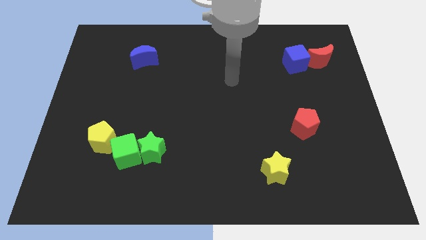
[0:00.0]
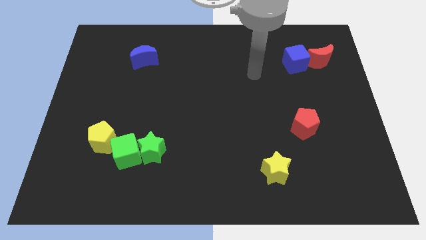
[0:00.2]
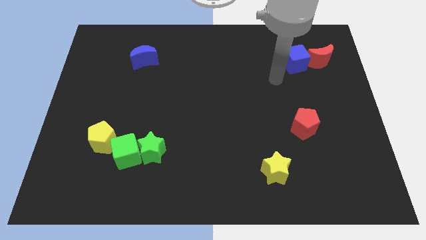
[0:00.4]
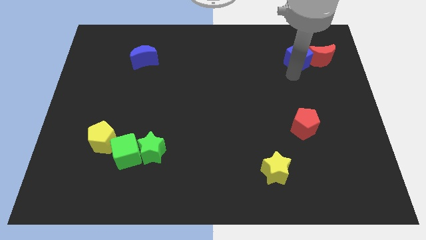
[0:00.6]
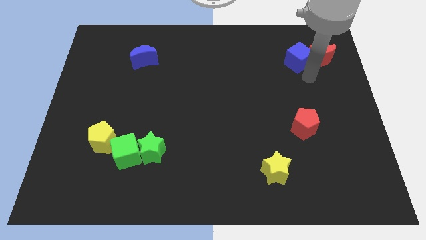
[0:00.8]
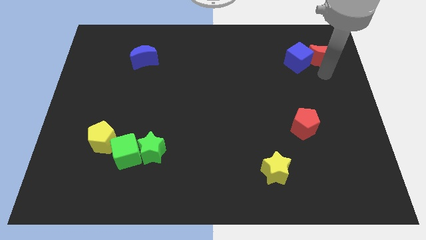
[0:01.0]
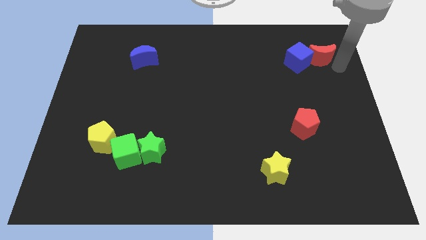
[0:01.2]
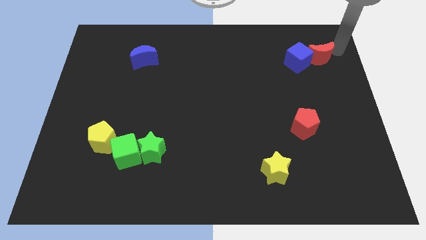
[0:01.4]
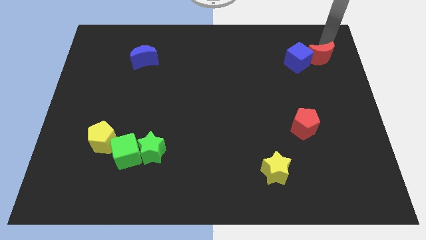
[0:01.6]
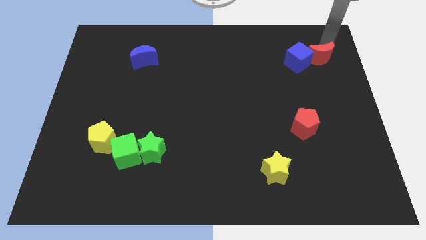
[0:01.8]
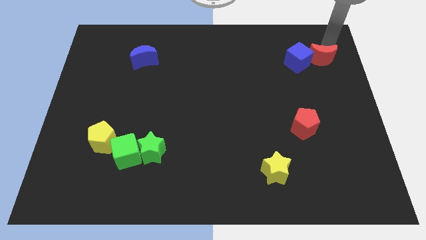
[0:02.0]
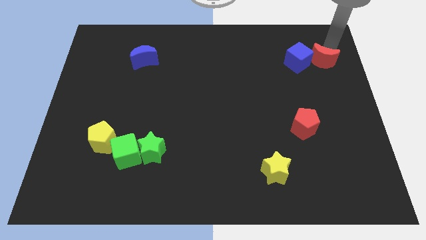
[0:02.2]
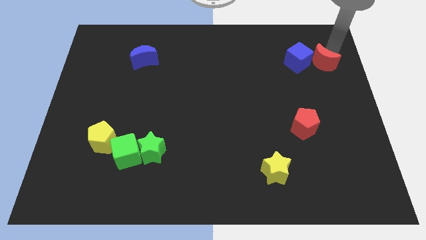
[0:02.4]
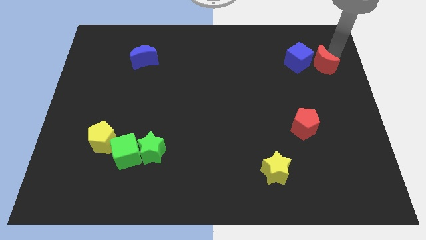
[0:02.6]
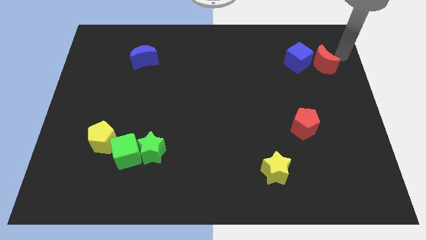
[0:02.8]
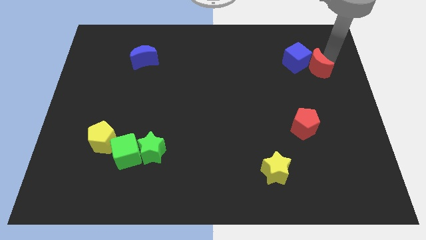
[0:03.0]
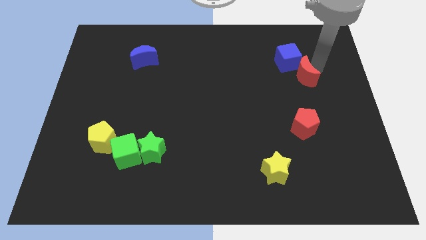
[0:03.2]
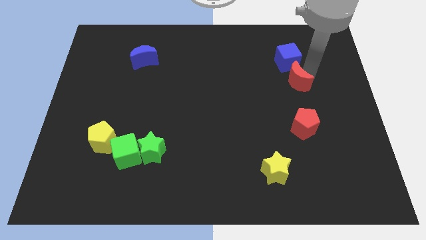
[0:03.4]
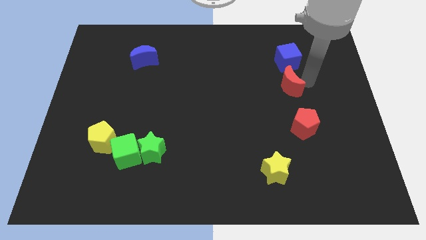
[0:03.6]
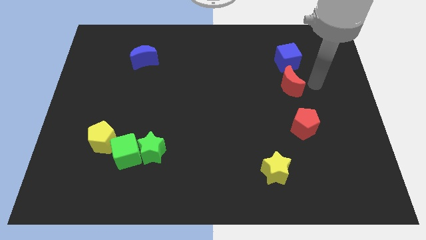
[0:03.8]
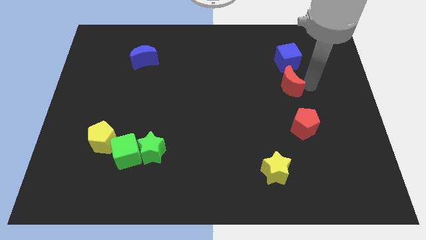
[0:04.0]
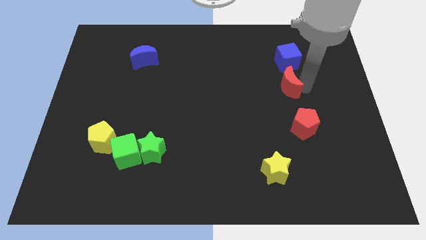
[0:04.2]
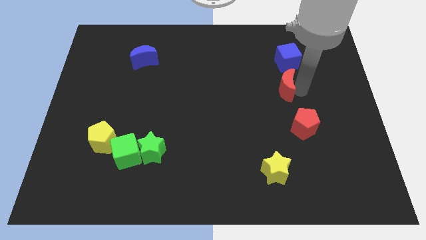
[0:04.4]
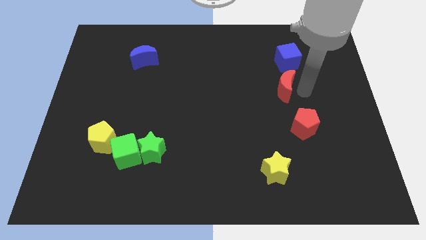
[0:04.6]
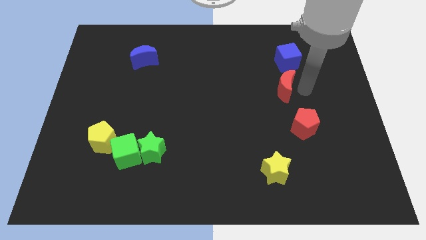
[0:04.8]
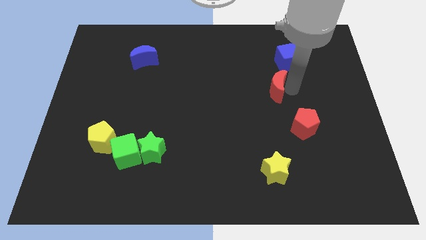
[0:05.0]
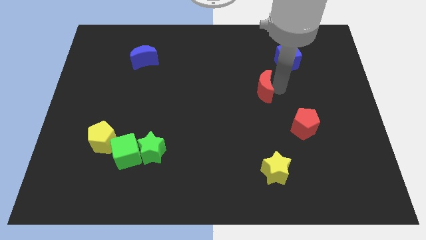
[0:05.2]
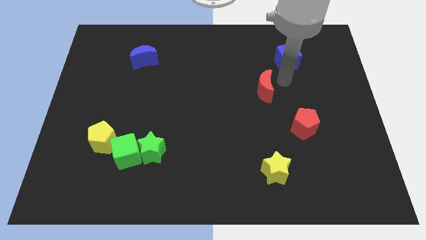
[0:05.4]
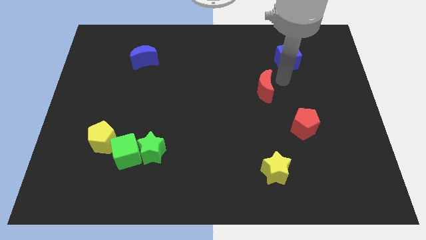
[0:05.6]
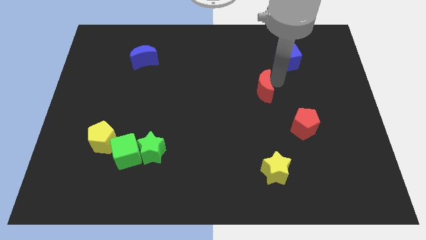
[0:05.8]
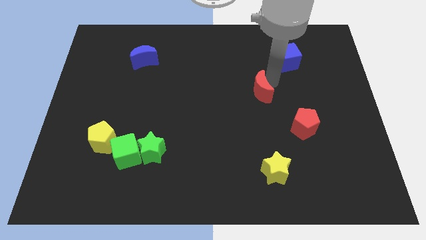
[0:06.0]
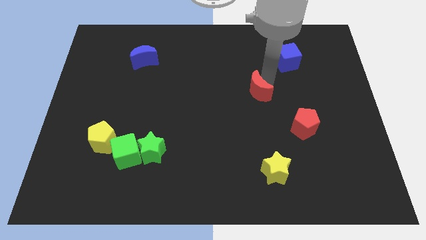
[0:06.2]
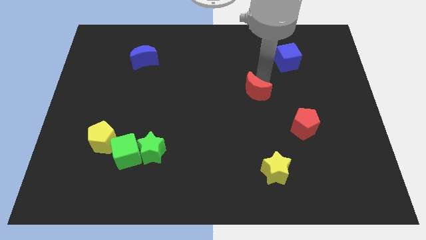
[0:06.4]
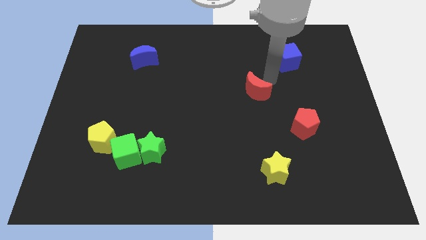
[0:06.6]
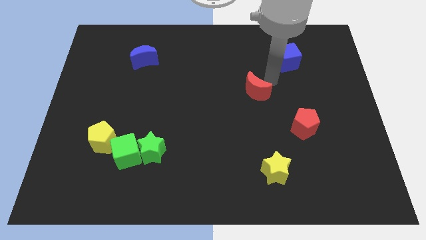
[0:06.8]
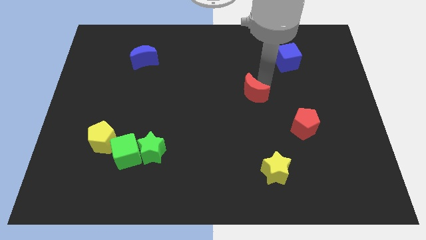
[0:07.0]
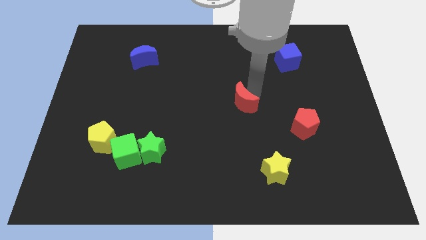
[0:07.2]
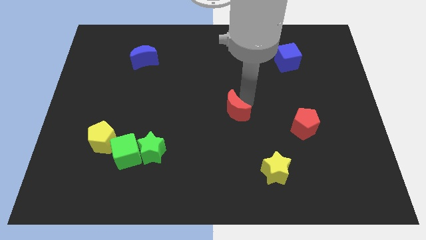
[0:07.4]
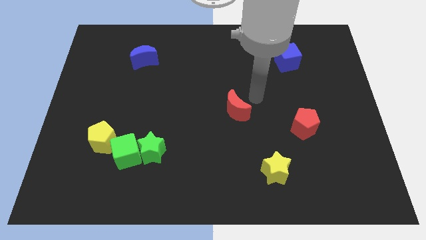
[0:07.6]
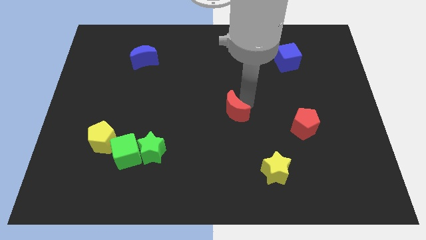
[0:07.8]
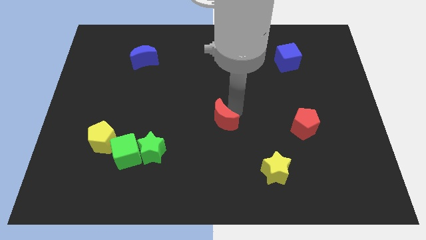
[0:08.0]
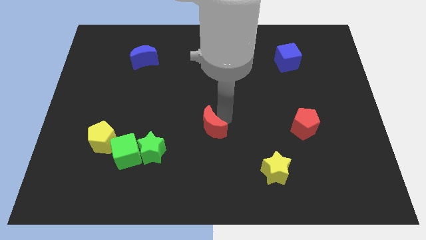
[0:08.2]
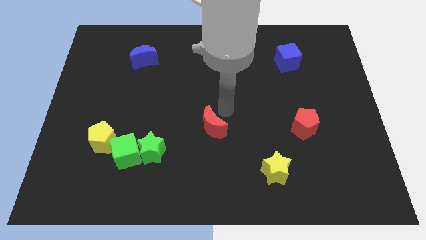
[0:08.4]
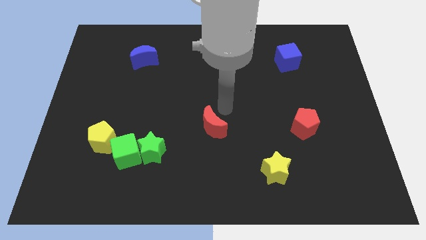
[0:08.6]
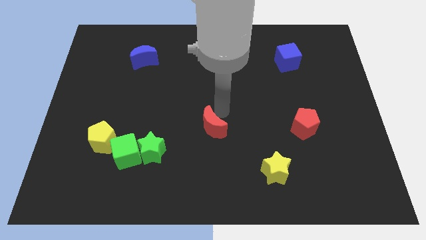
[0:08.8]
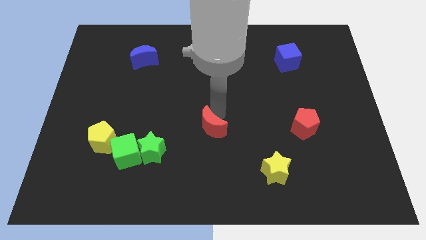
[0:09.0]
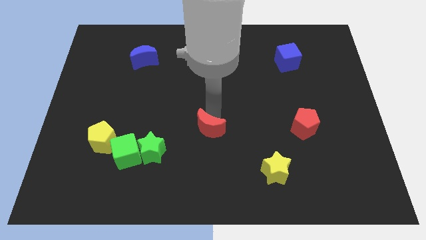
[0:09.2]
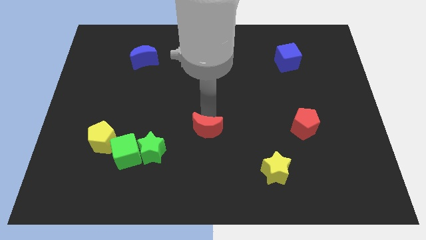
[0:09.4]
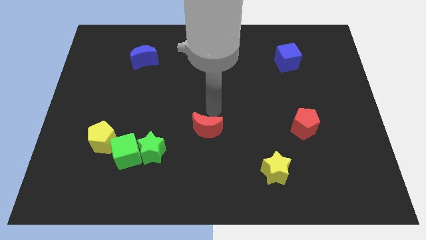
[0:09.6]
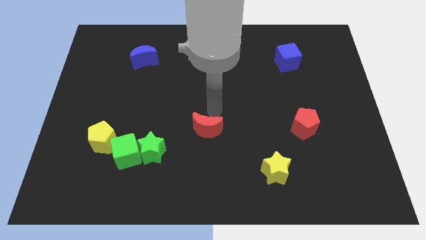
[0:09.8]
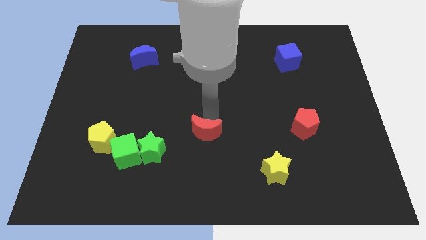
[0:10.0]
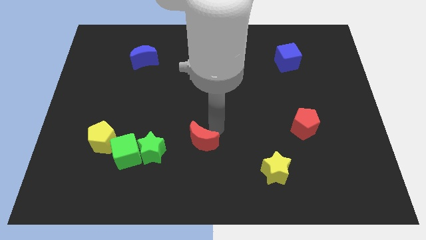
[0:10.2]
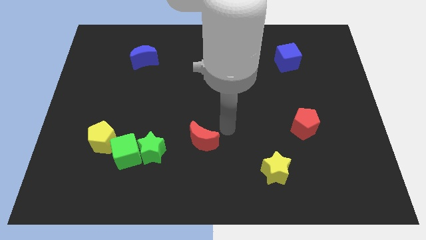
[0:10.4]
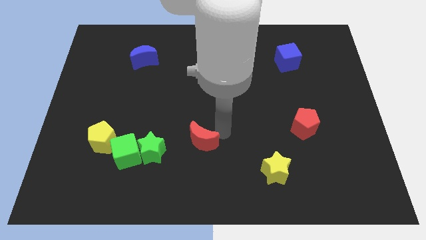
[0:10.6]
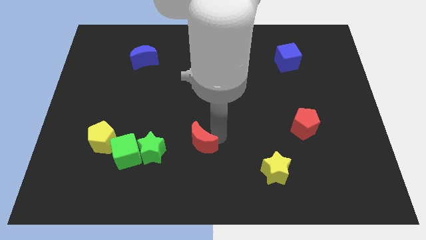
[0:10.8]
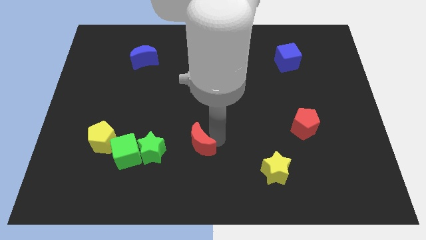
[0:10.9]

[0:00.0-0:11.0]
put the red moon just right of the green cube

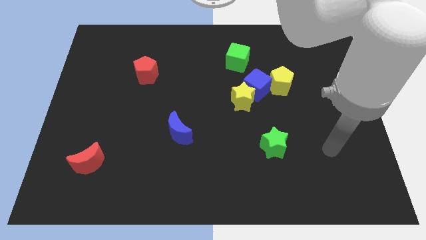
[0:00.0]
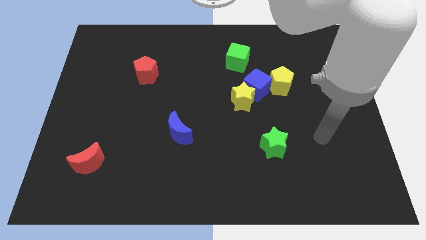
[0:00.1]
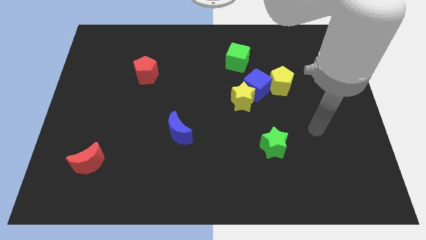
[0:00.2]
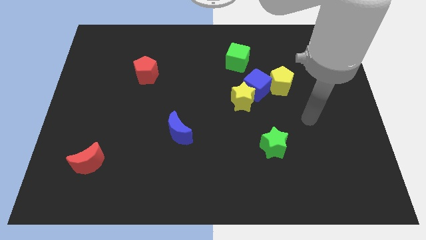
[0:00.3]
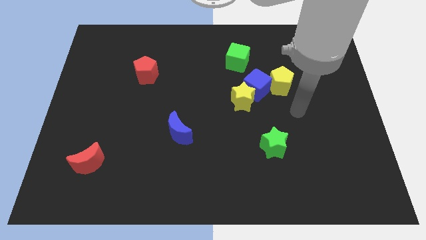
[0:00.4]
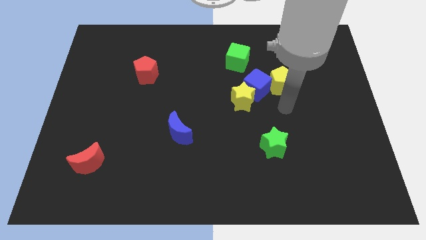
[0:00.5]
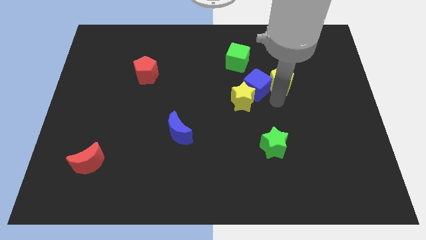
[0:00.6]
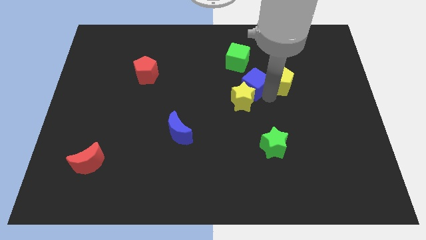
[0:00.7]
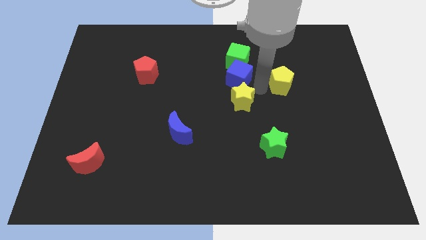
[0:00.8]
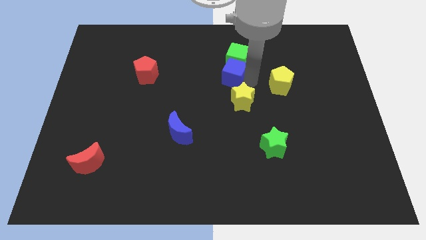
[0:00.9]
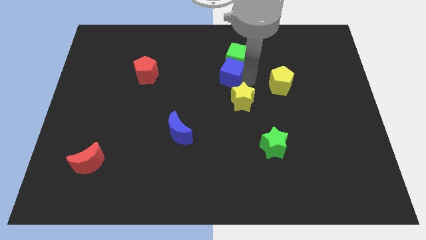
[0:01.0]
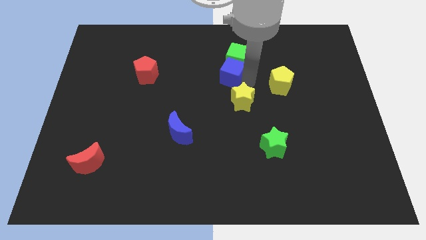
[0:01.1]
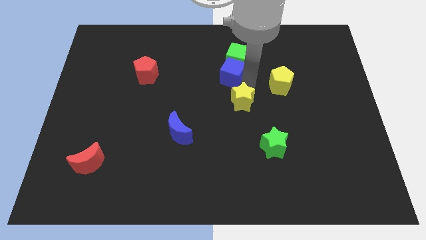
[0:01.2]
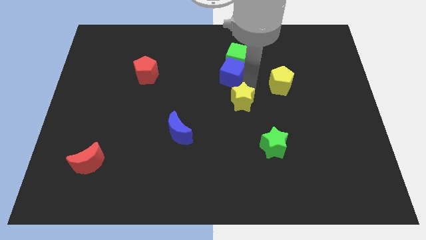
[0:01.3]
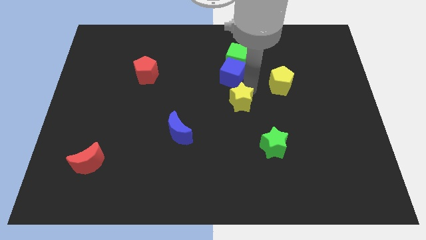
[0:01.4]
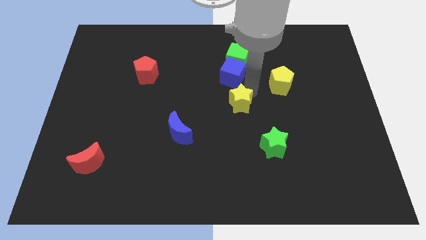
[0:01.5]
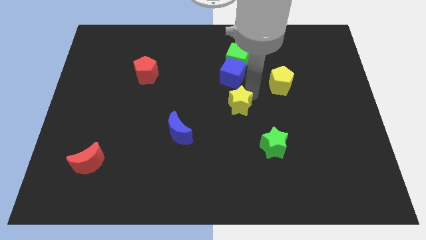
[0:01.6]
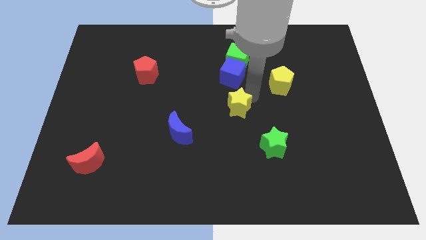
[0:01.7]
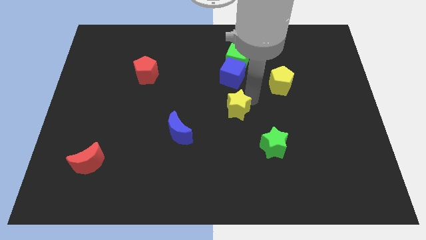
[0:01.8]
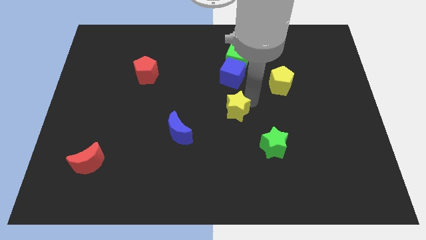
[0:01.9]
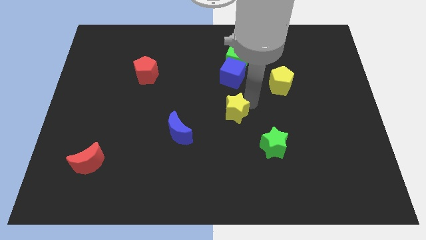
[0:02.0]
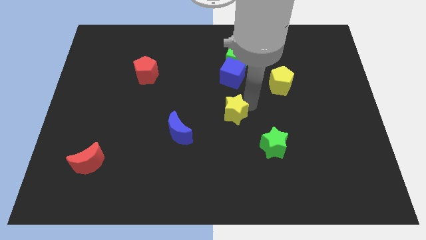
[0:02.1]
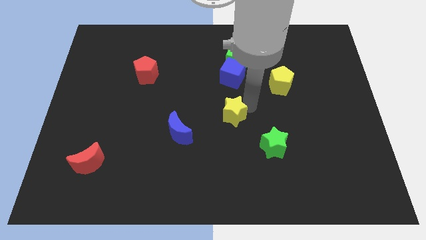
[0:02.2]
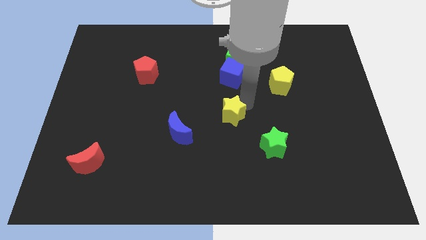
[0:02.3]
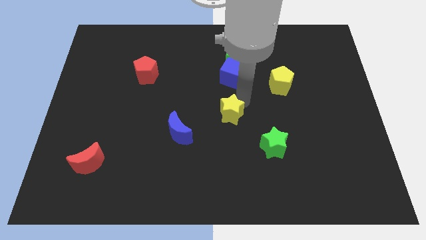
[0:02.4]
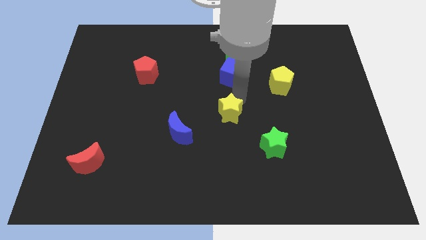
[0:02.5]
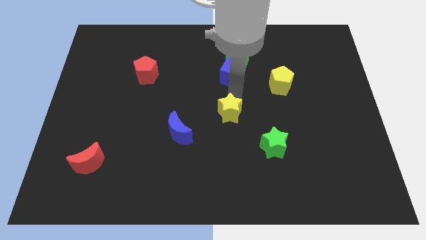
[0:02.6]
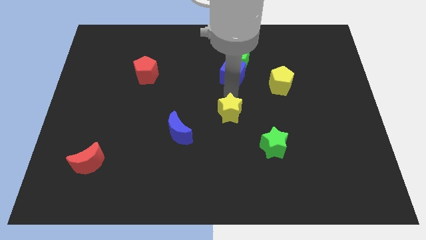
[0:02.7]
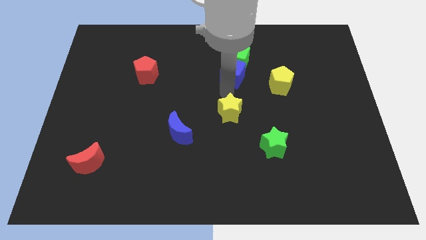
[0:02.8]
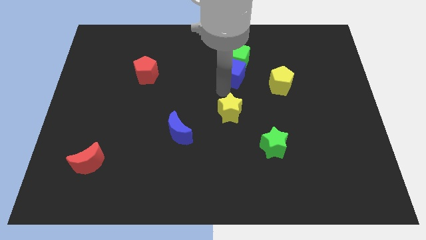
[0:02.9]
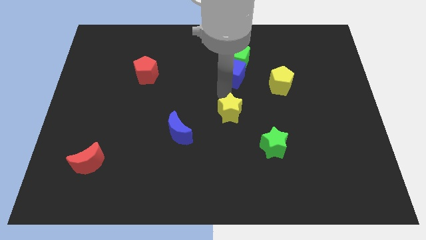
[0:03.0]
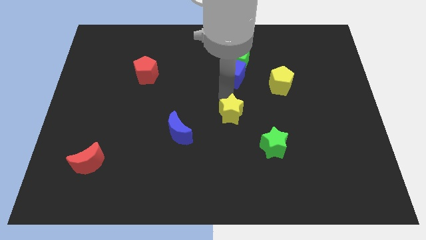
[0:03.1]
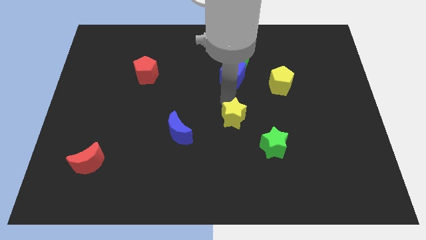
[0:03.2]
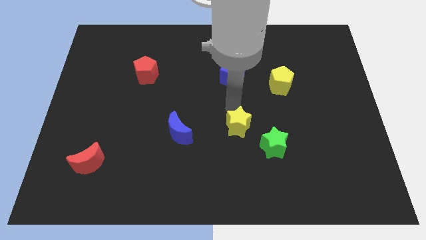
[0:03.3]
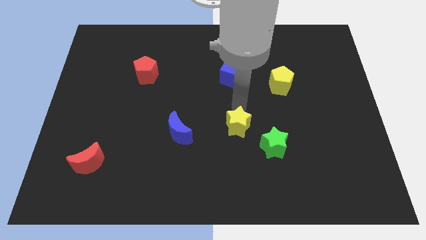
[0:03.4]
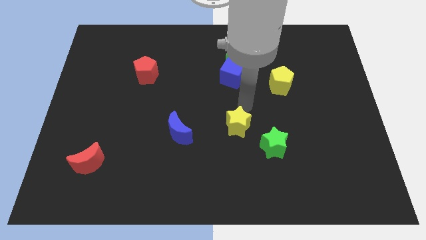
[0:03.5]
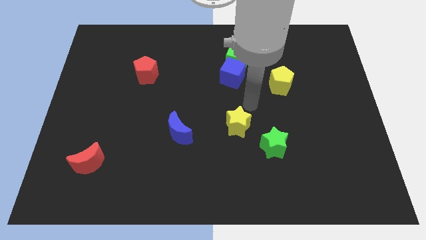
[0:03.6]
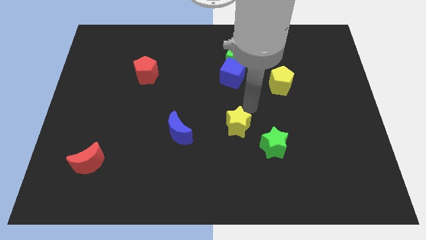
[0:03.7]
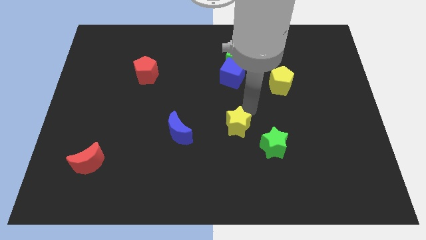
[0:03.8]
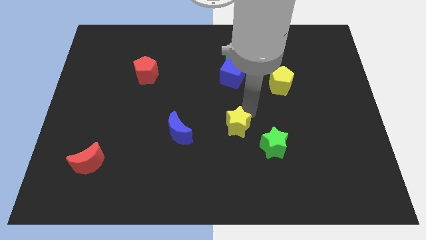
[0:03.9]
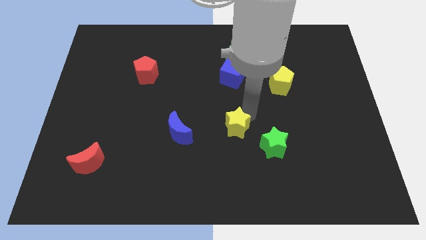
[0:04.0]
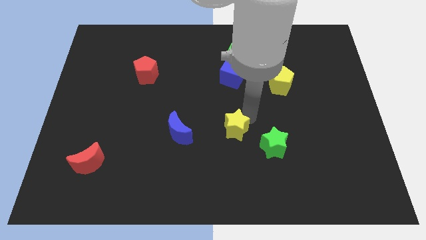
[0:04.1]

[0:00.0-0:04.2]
push the yellow star to the left side of the green star
